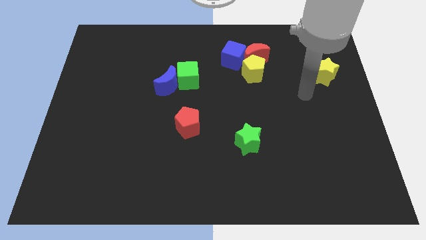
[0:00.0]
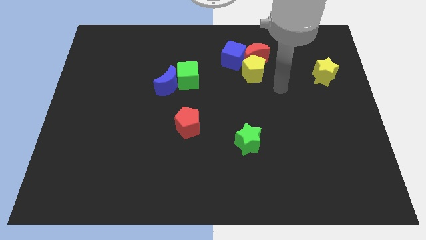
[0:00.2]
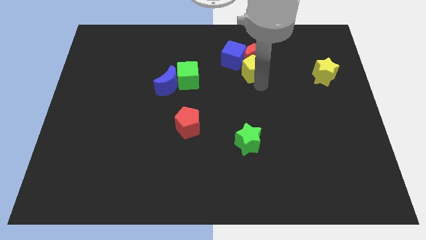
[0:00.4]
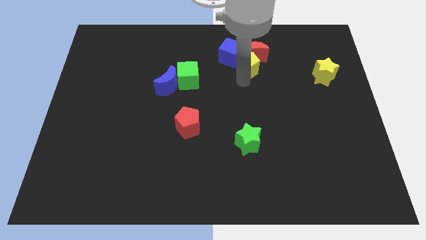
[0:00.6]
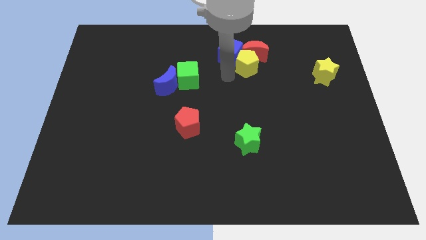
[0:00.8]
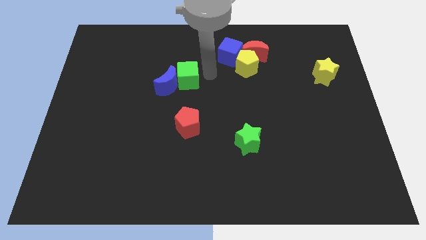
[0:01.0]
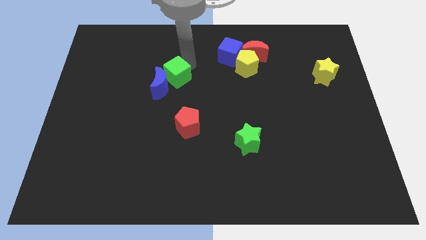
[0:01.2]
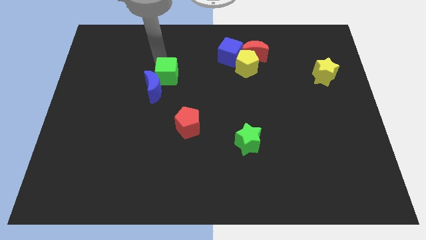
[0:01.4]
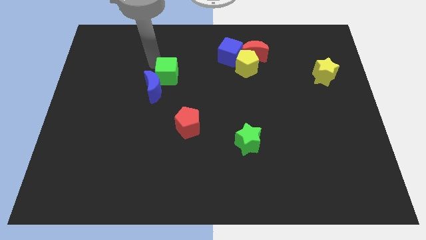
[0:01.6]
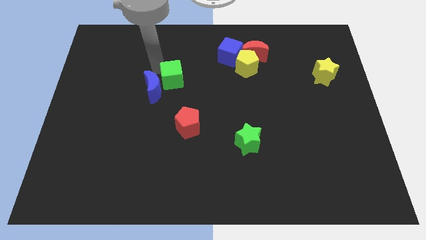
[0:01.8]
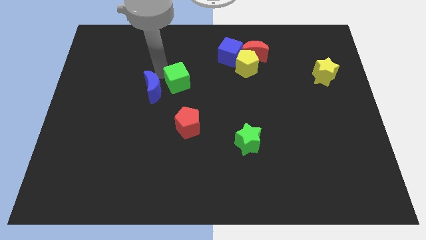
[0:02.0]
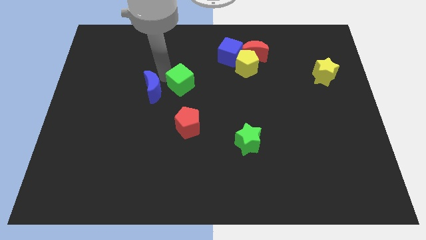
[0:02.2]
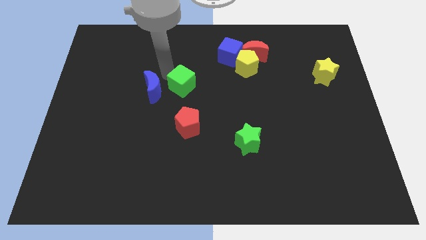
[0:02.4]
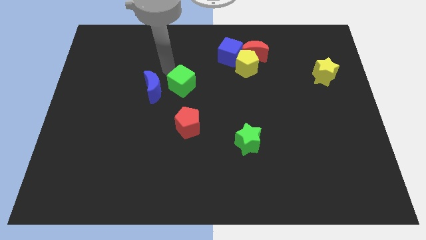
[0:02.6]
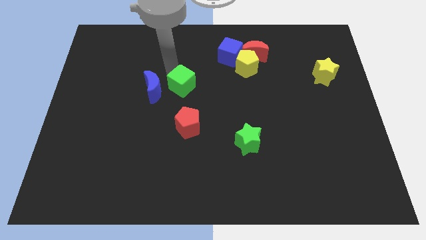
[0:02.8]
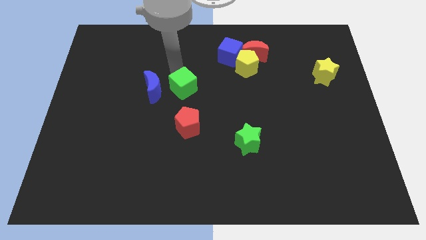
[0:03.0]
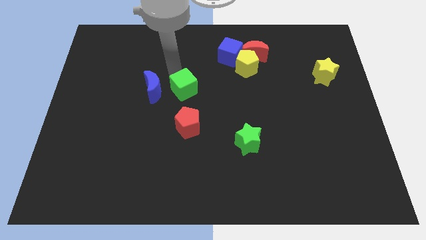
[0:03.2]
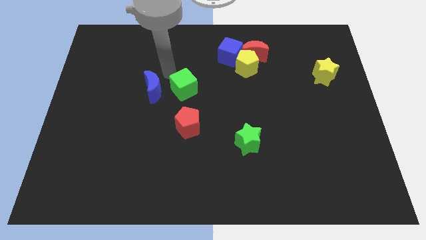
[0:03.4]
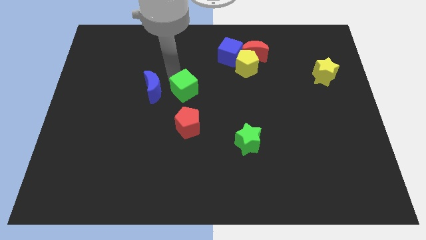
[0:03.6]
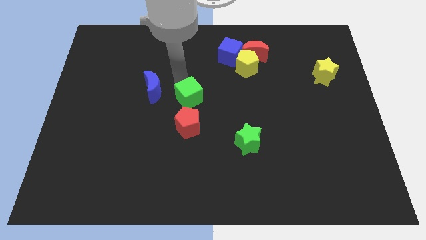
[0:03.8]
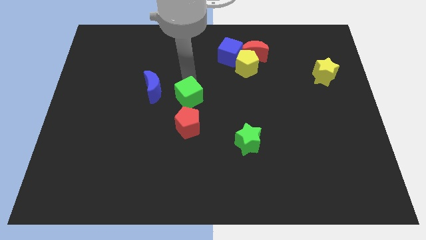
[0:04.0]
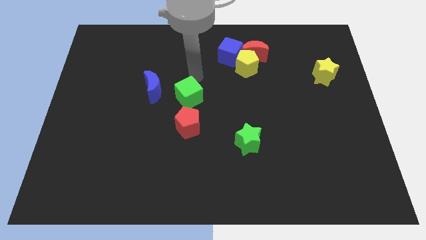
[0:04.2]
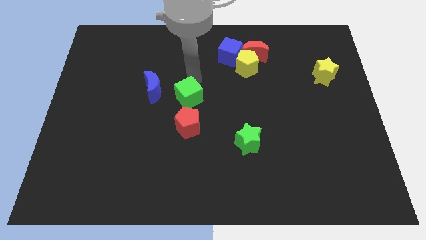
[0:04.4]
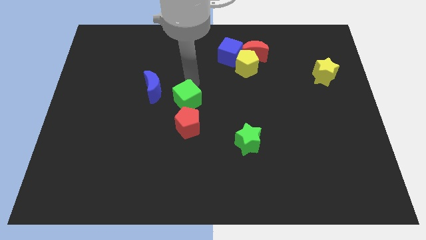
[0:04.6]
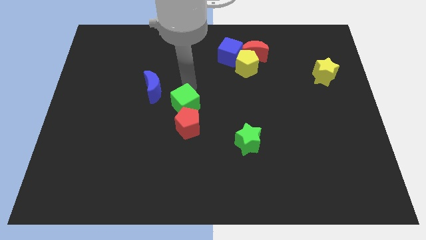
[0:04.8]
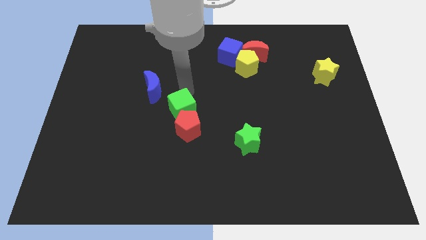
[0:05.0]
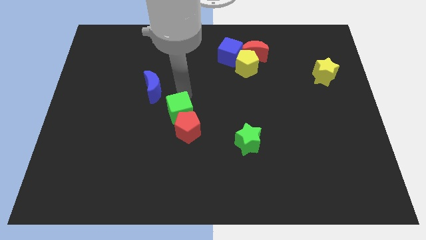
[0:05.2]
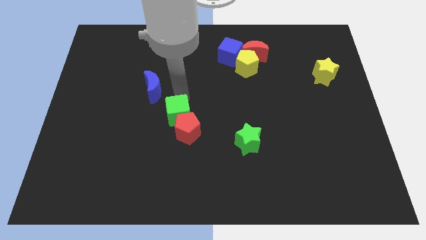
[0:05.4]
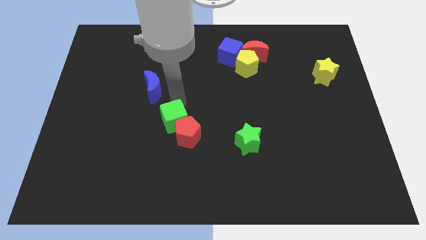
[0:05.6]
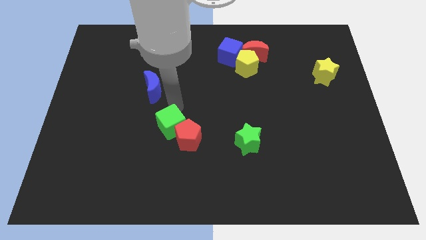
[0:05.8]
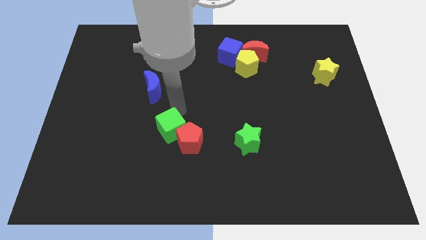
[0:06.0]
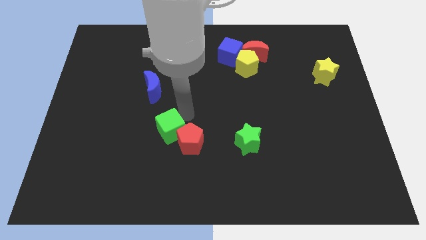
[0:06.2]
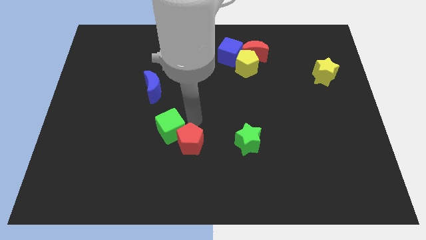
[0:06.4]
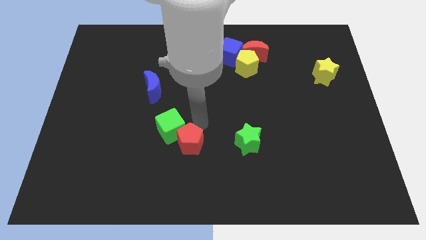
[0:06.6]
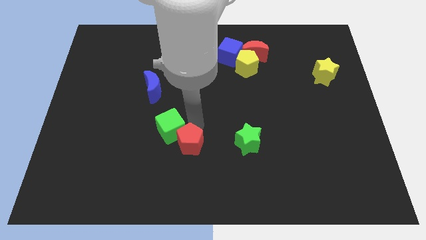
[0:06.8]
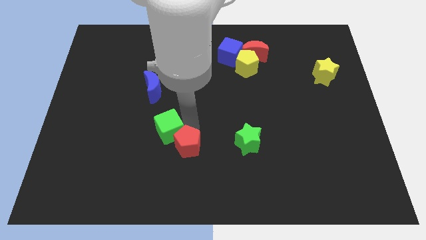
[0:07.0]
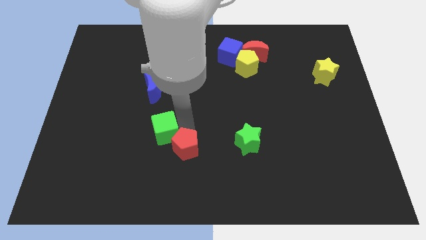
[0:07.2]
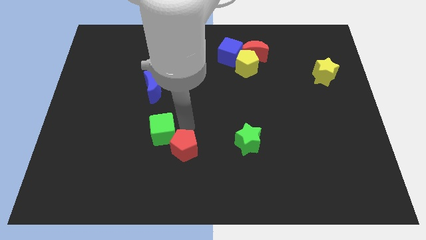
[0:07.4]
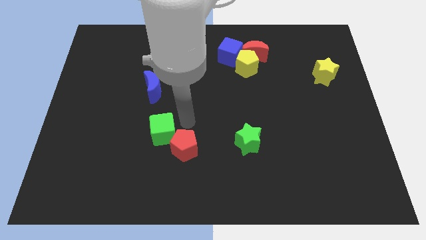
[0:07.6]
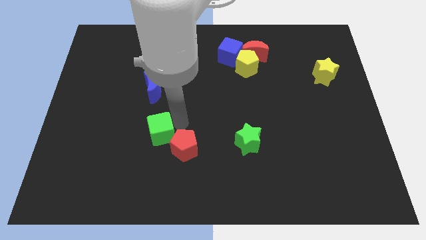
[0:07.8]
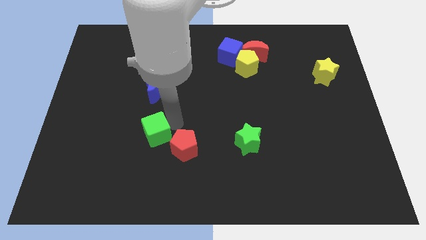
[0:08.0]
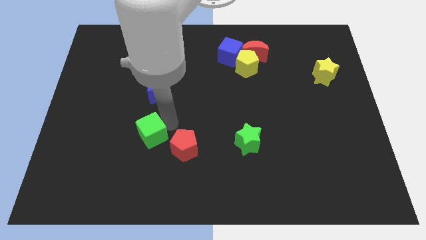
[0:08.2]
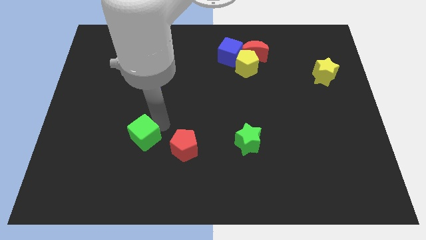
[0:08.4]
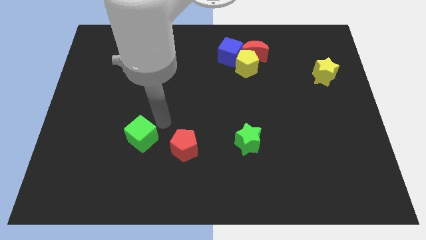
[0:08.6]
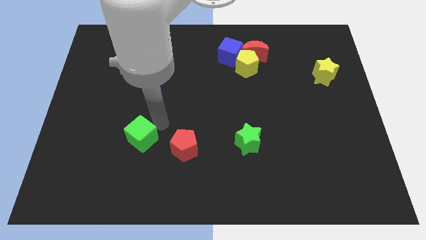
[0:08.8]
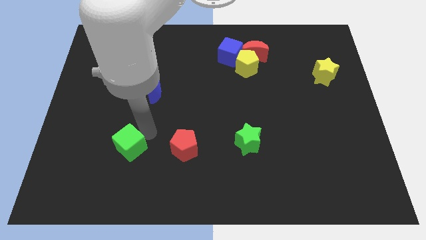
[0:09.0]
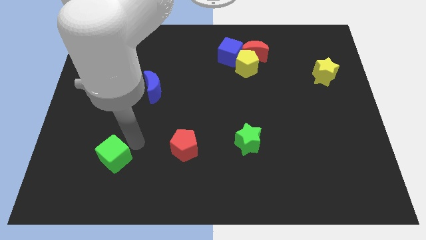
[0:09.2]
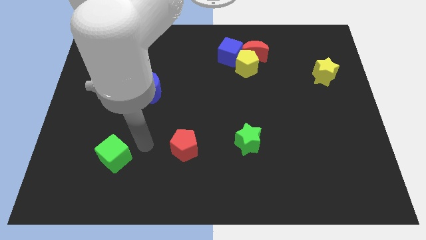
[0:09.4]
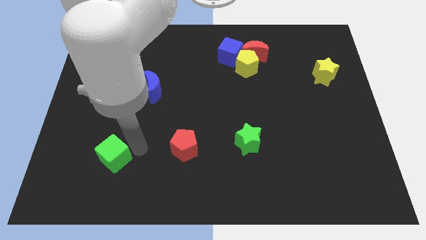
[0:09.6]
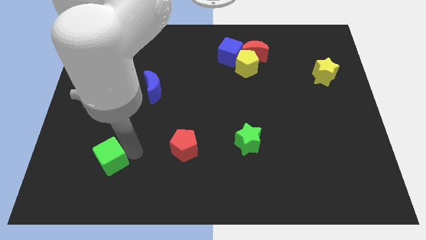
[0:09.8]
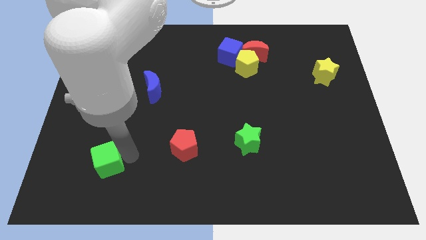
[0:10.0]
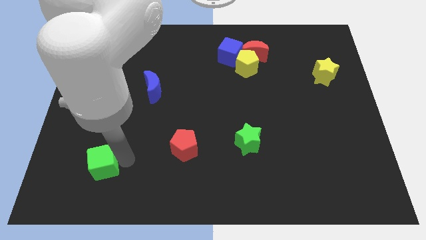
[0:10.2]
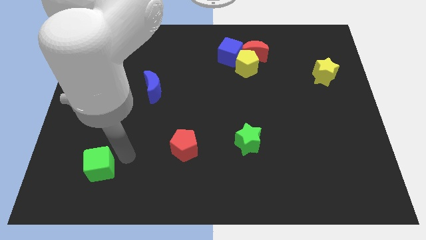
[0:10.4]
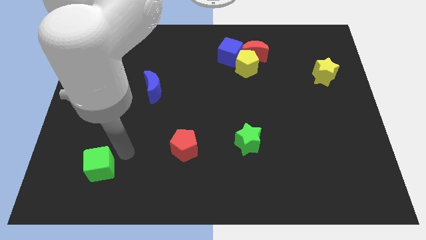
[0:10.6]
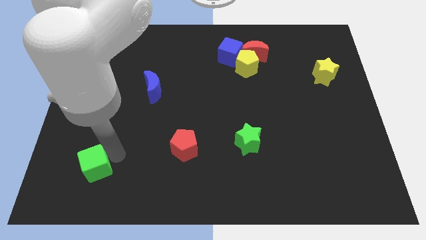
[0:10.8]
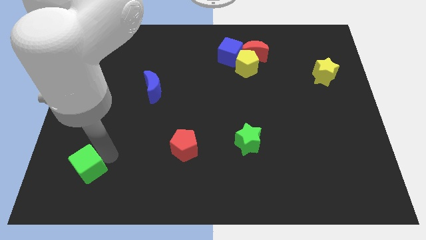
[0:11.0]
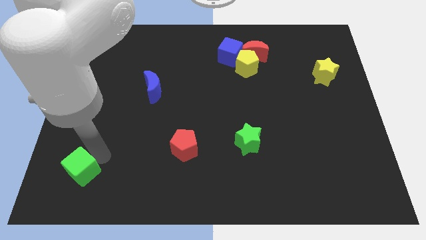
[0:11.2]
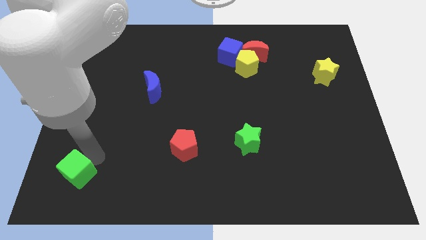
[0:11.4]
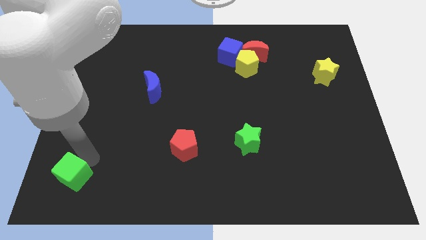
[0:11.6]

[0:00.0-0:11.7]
slide the green cube to the bottom left corner

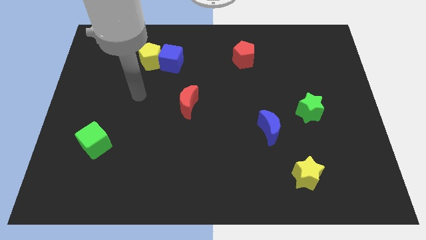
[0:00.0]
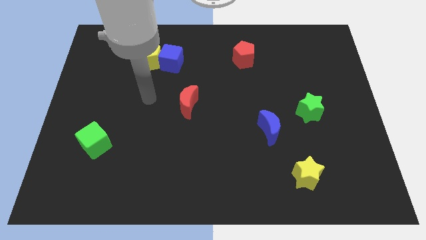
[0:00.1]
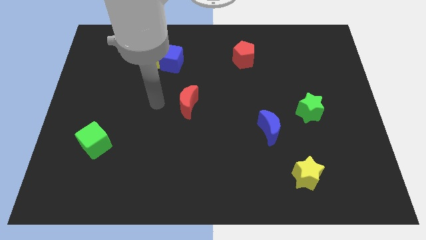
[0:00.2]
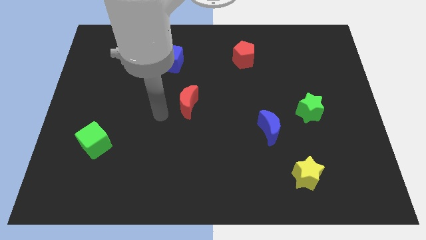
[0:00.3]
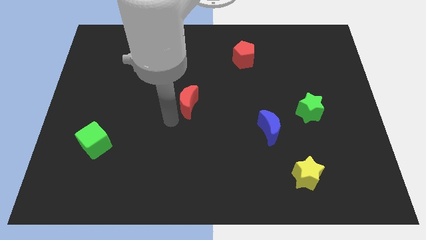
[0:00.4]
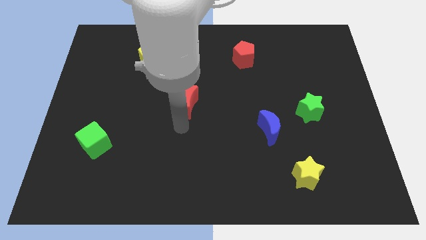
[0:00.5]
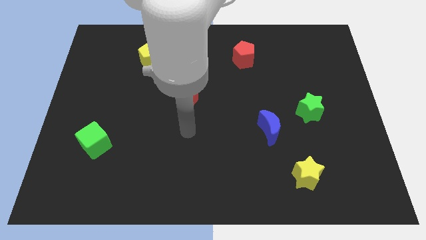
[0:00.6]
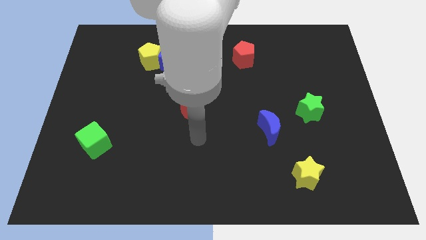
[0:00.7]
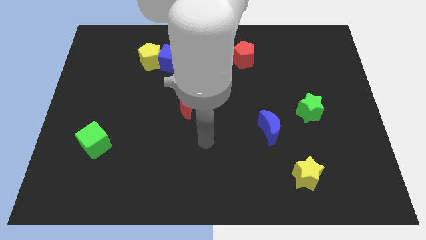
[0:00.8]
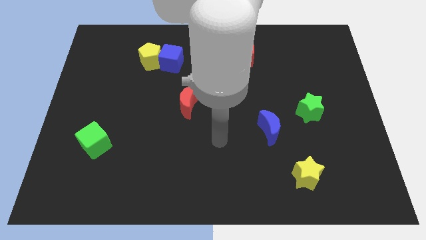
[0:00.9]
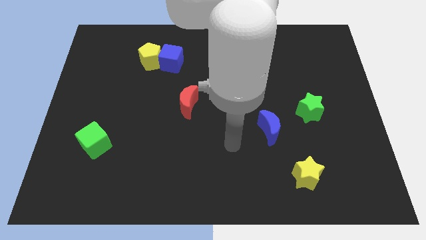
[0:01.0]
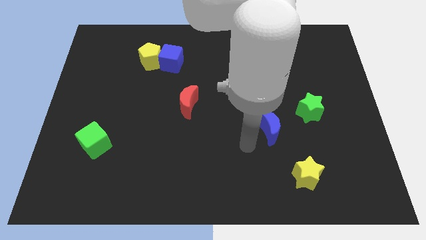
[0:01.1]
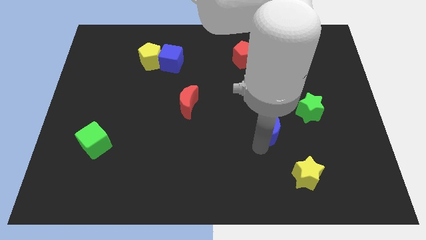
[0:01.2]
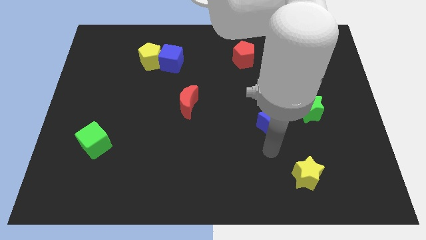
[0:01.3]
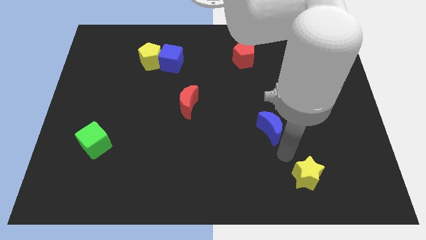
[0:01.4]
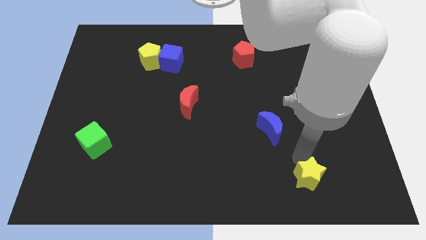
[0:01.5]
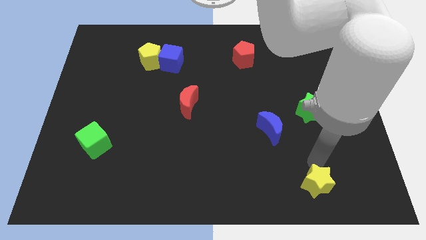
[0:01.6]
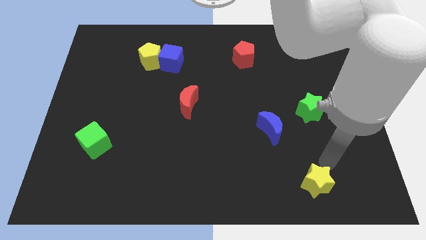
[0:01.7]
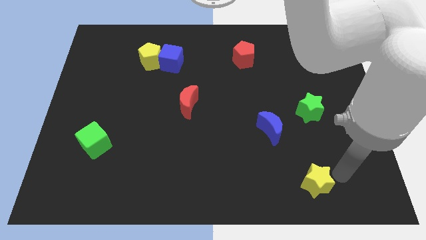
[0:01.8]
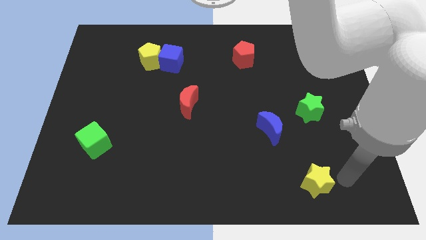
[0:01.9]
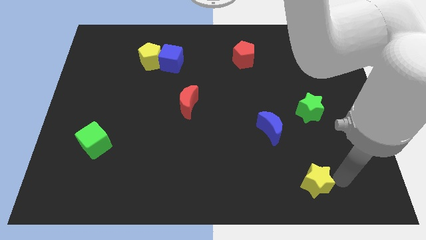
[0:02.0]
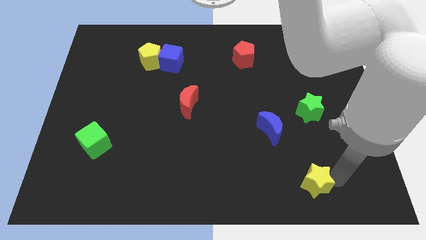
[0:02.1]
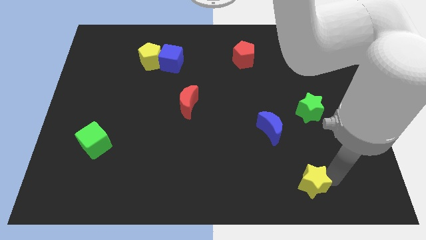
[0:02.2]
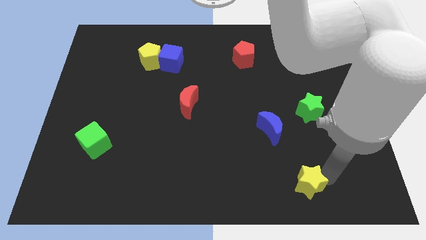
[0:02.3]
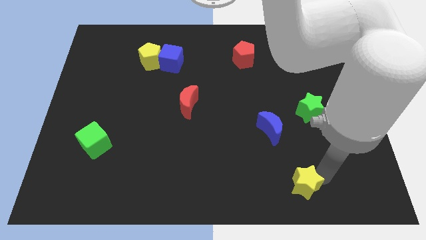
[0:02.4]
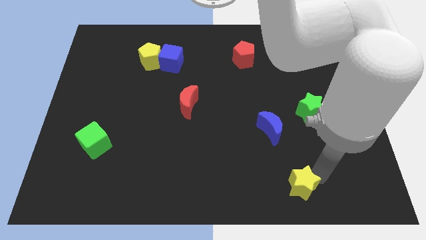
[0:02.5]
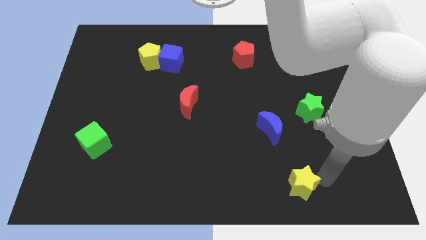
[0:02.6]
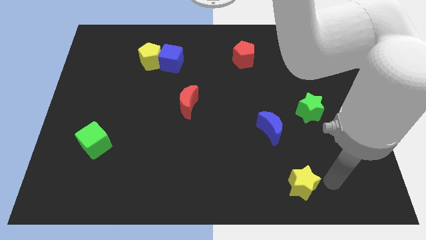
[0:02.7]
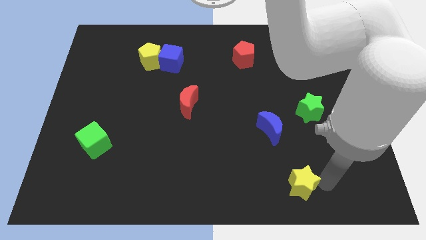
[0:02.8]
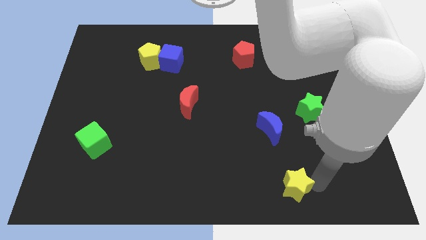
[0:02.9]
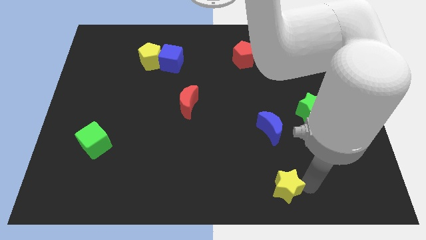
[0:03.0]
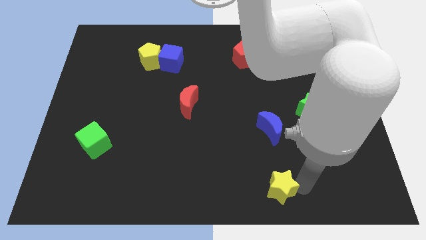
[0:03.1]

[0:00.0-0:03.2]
move the yellow star to the bottom side
